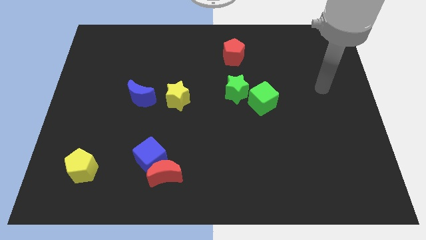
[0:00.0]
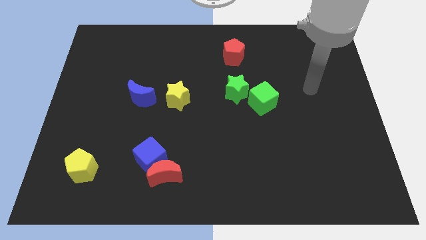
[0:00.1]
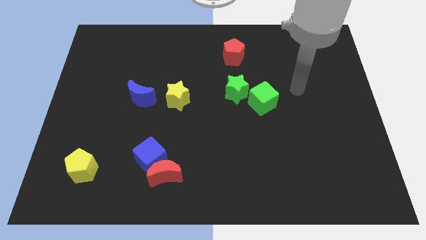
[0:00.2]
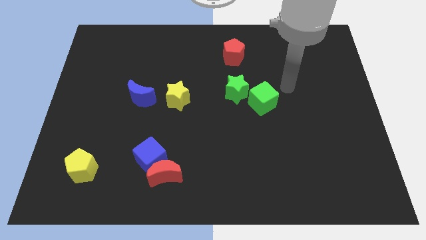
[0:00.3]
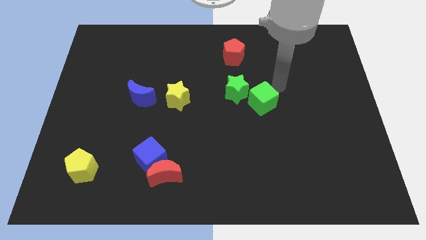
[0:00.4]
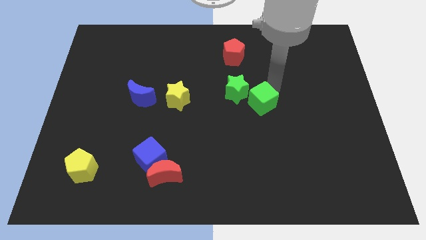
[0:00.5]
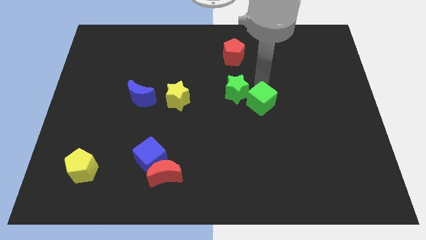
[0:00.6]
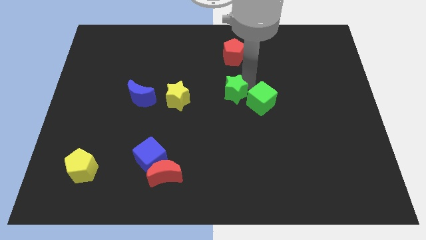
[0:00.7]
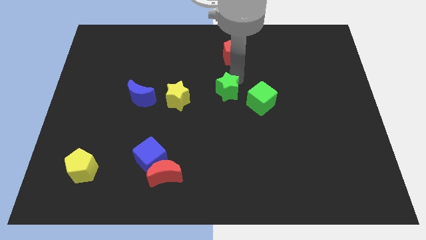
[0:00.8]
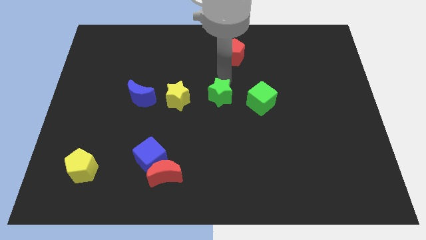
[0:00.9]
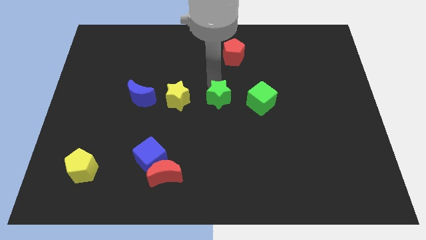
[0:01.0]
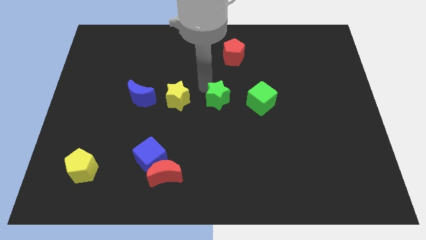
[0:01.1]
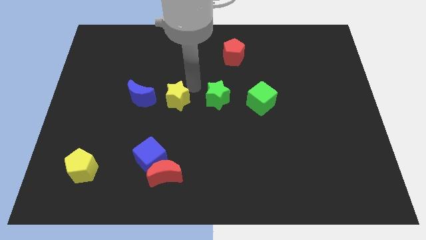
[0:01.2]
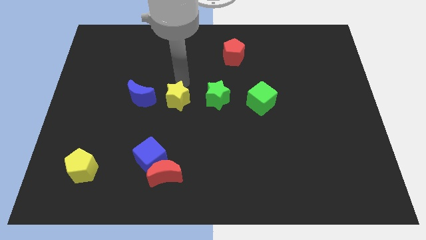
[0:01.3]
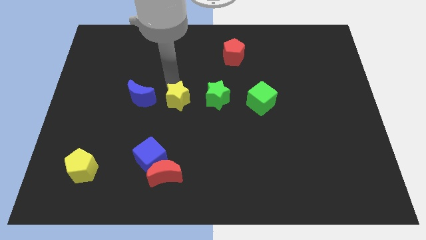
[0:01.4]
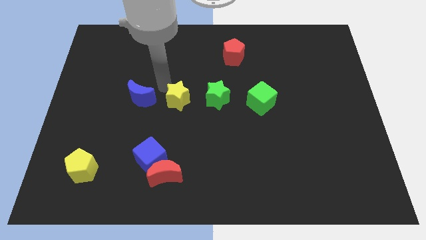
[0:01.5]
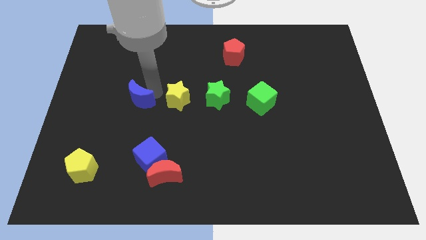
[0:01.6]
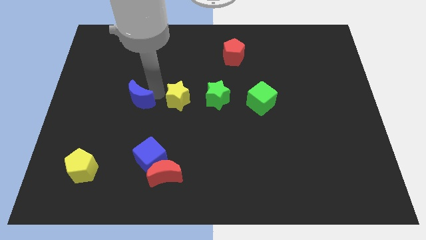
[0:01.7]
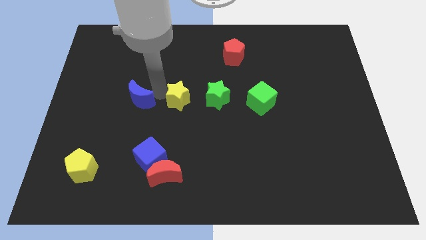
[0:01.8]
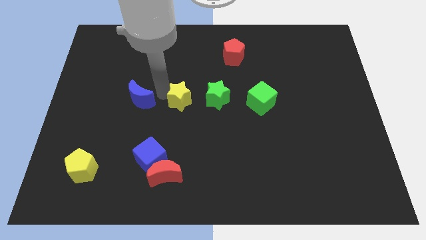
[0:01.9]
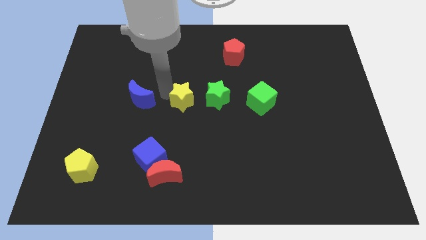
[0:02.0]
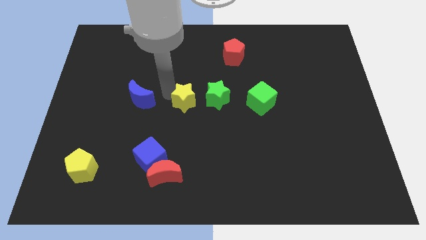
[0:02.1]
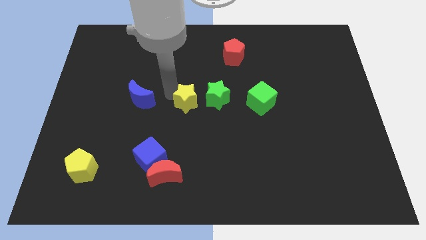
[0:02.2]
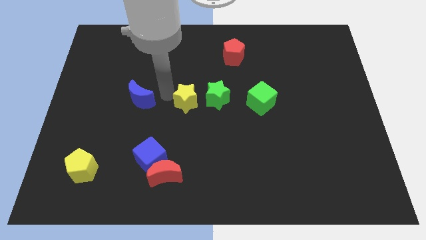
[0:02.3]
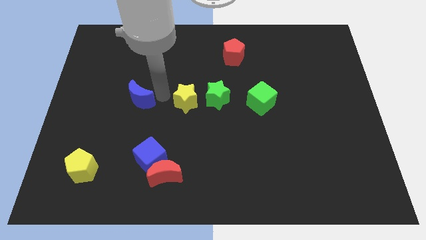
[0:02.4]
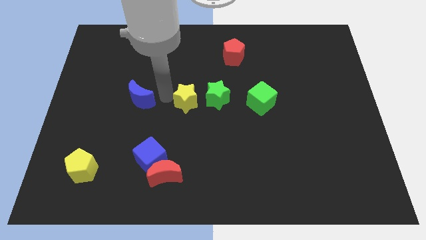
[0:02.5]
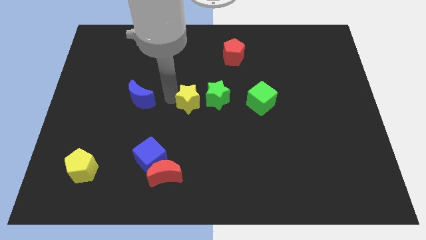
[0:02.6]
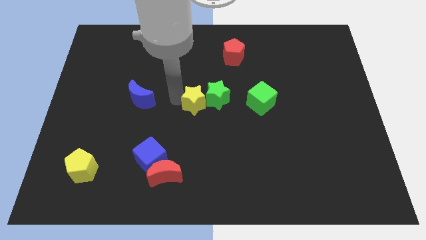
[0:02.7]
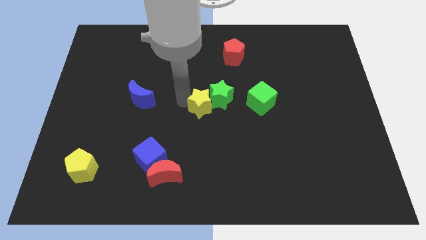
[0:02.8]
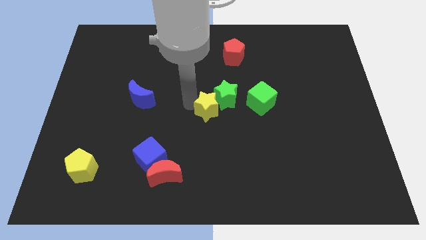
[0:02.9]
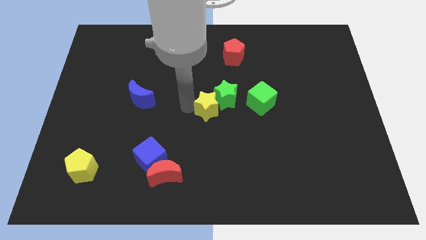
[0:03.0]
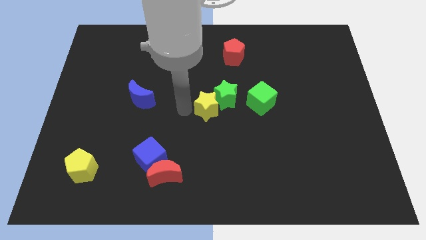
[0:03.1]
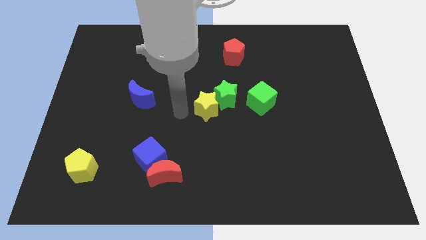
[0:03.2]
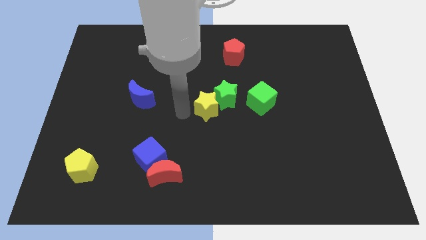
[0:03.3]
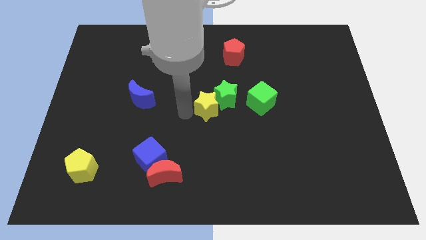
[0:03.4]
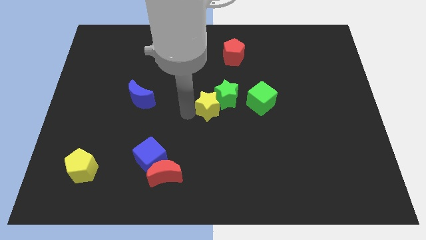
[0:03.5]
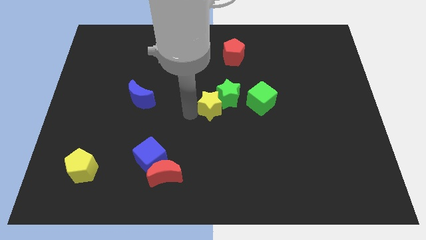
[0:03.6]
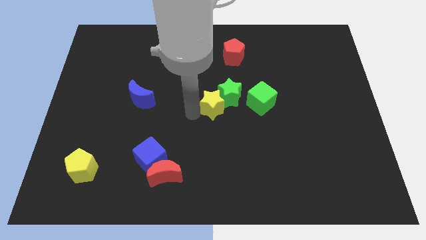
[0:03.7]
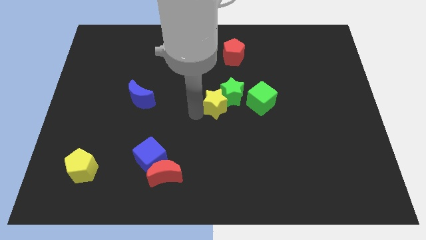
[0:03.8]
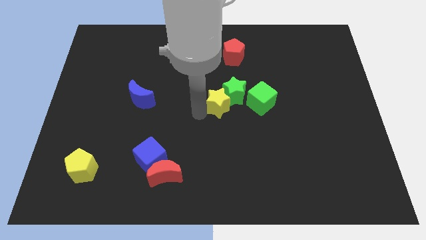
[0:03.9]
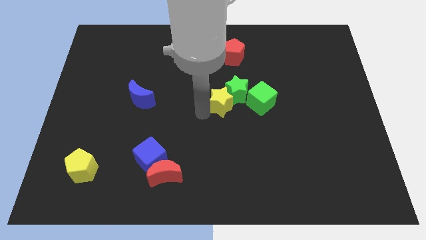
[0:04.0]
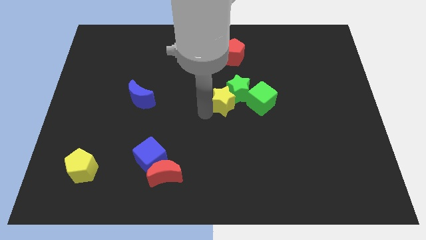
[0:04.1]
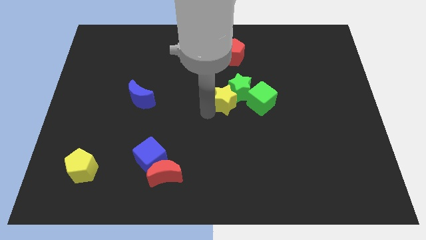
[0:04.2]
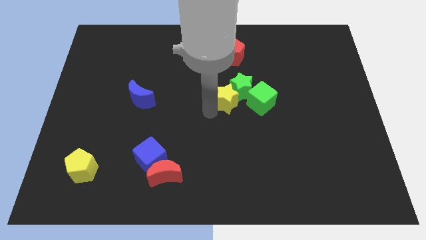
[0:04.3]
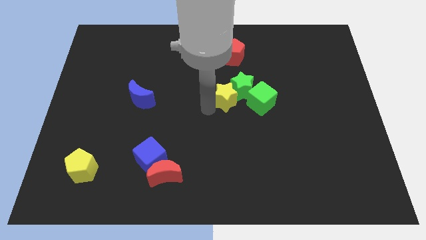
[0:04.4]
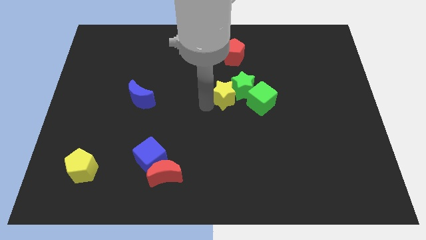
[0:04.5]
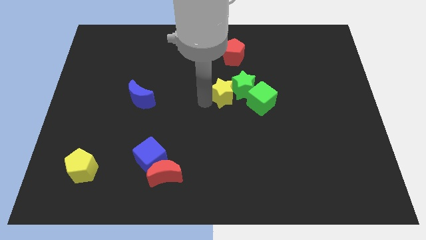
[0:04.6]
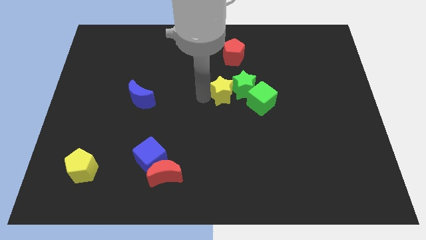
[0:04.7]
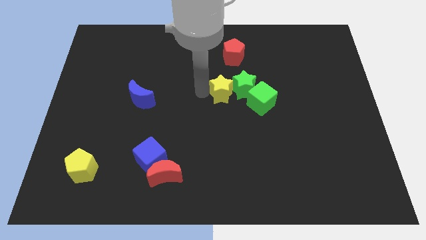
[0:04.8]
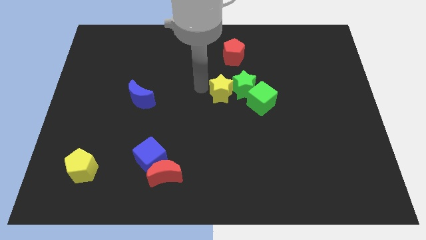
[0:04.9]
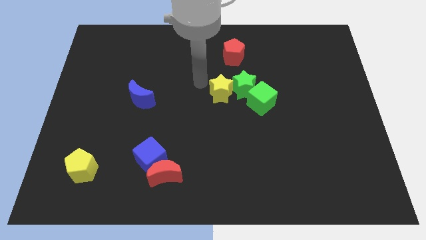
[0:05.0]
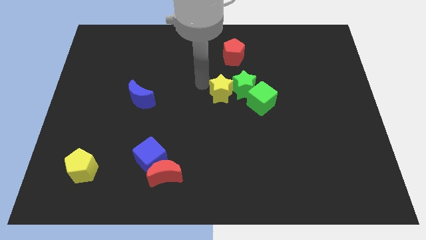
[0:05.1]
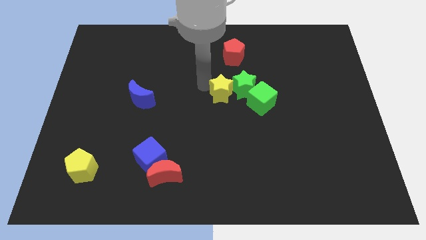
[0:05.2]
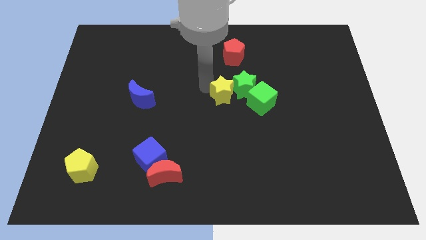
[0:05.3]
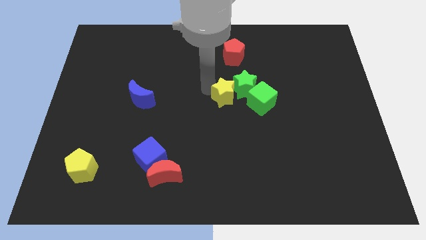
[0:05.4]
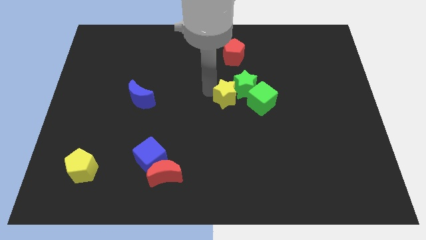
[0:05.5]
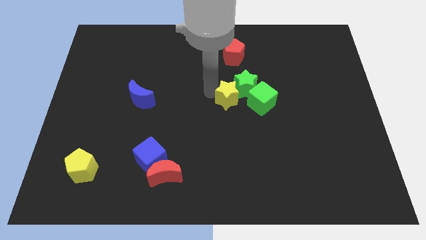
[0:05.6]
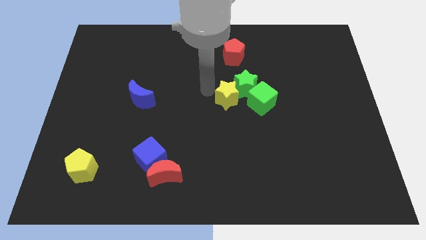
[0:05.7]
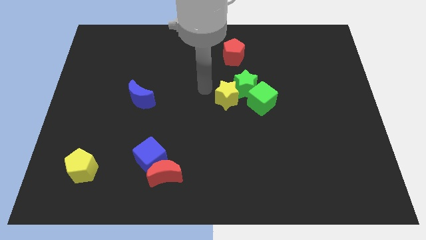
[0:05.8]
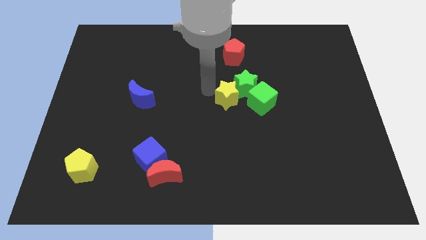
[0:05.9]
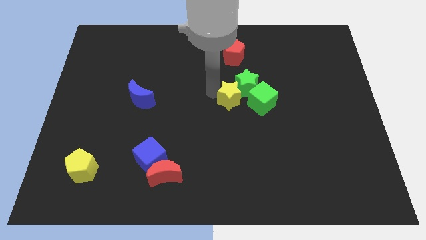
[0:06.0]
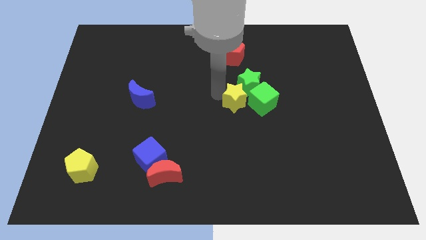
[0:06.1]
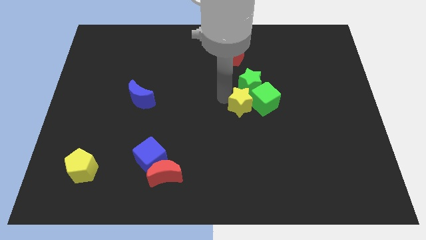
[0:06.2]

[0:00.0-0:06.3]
slide the yellow star next to the green cube

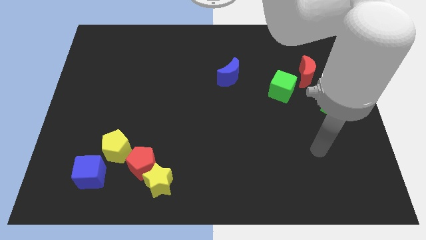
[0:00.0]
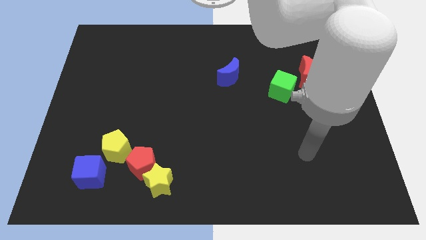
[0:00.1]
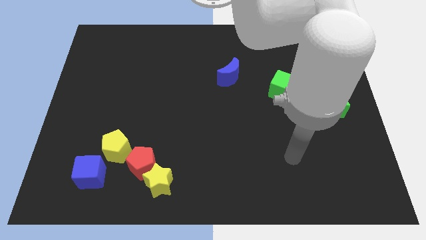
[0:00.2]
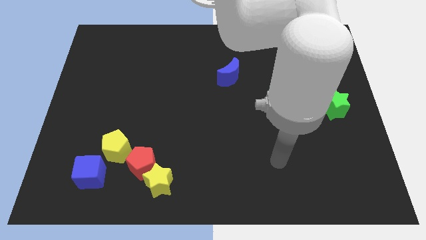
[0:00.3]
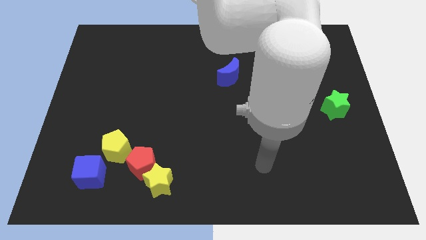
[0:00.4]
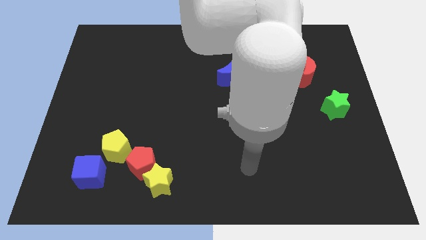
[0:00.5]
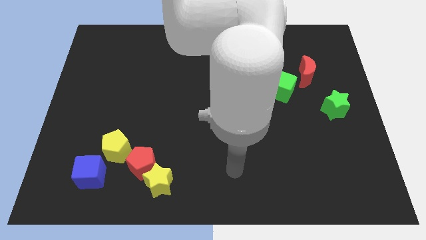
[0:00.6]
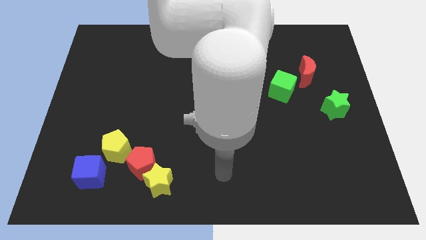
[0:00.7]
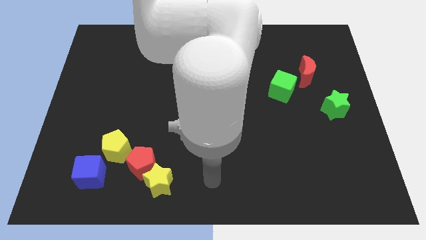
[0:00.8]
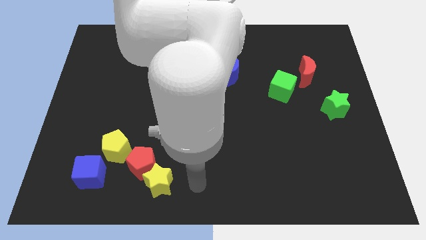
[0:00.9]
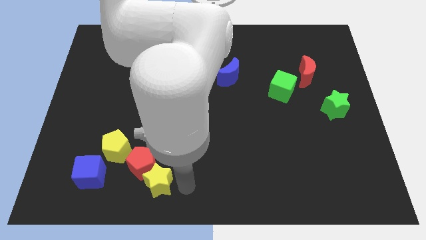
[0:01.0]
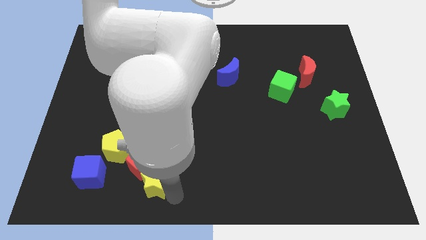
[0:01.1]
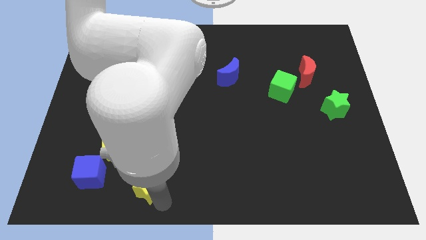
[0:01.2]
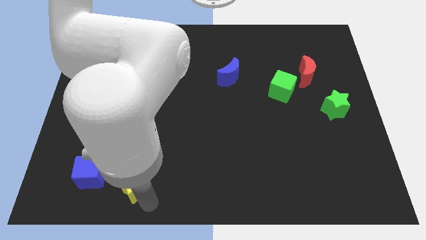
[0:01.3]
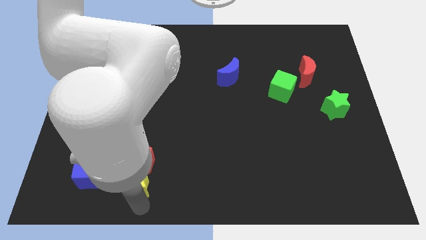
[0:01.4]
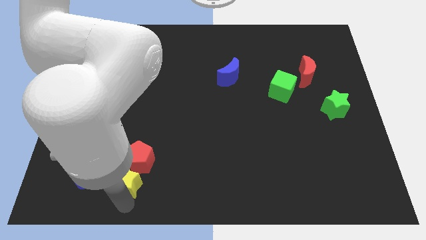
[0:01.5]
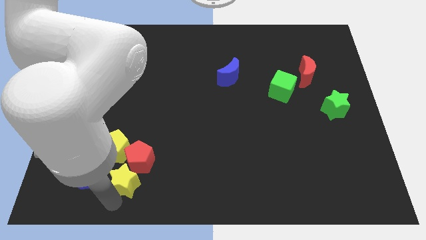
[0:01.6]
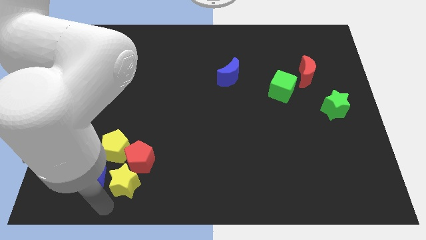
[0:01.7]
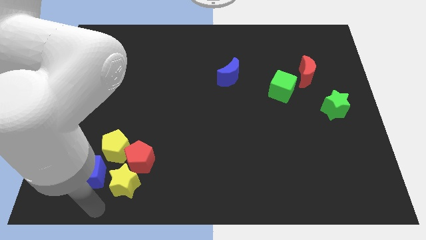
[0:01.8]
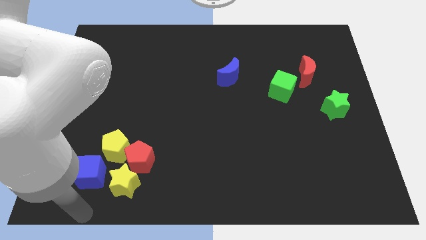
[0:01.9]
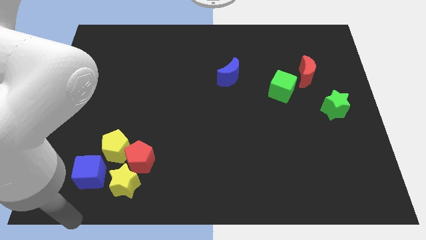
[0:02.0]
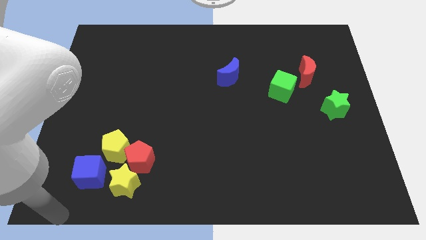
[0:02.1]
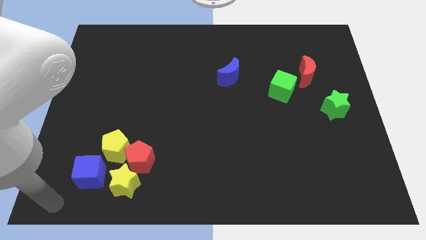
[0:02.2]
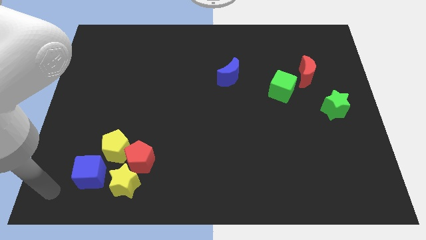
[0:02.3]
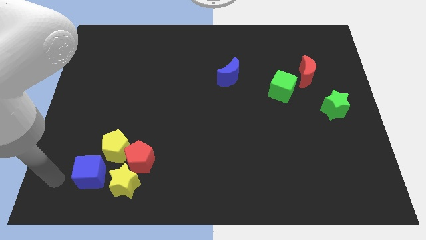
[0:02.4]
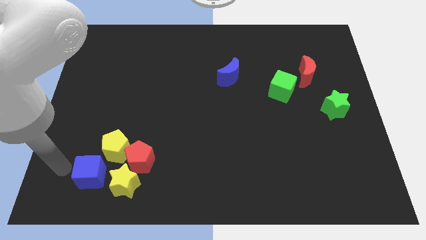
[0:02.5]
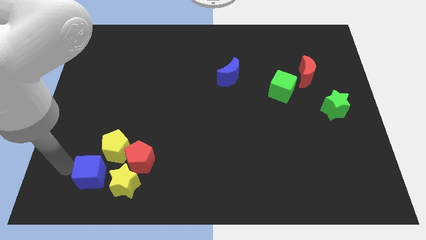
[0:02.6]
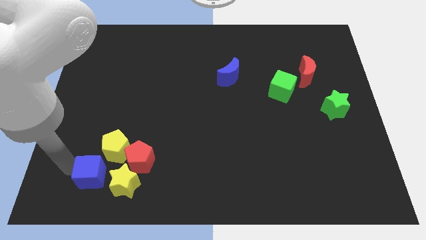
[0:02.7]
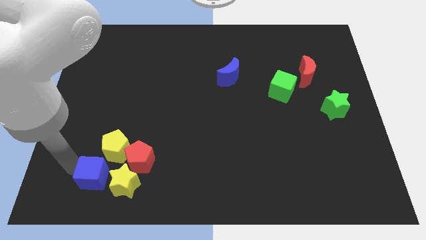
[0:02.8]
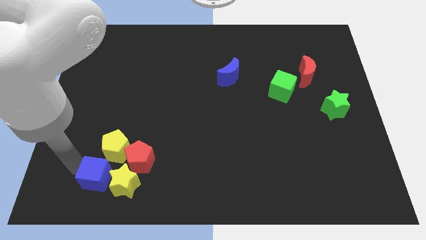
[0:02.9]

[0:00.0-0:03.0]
slide the blue cube to the yellow star
